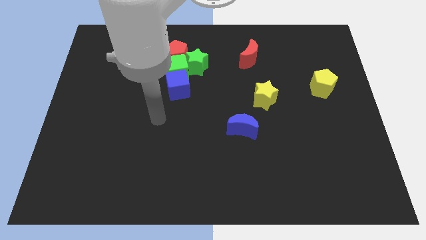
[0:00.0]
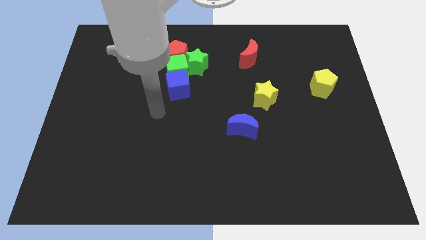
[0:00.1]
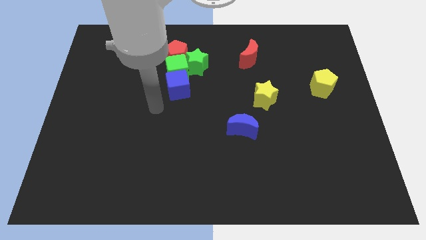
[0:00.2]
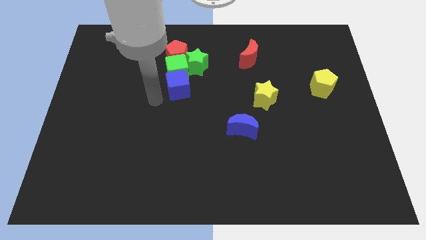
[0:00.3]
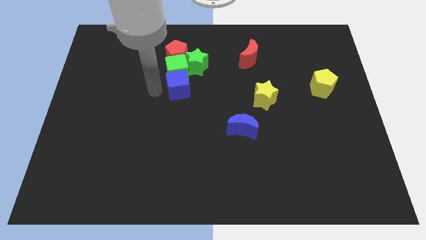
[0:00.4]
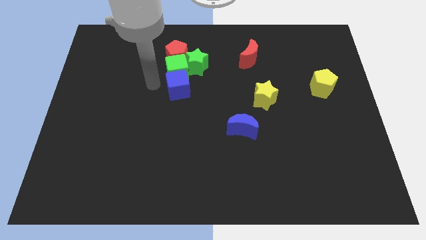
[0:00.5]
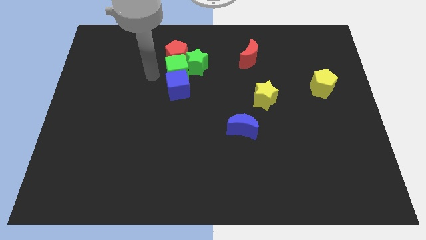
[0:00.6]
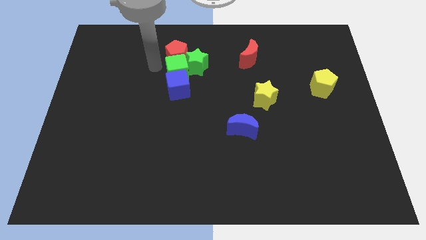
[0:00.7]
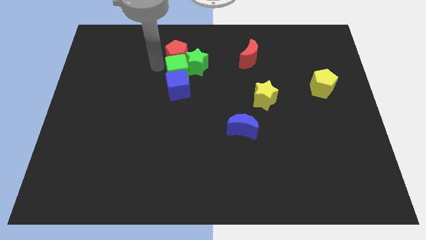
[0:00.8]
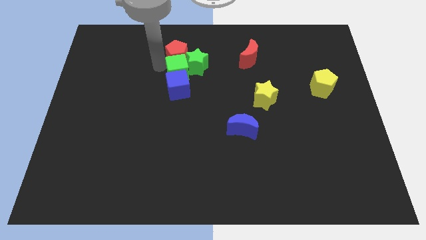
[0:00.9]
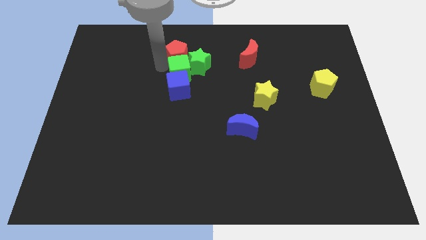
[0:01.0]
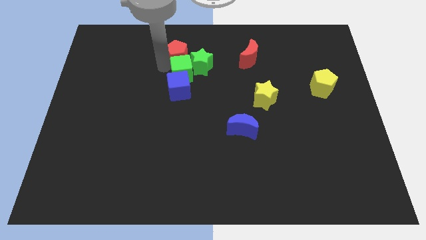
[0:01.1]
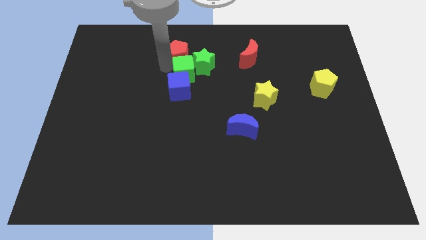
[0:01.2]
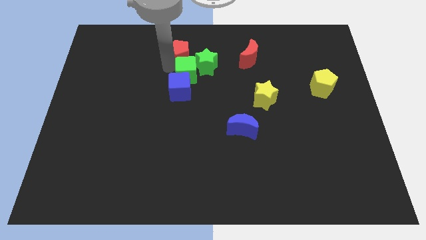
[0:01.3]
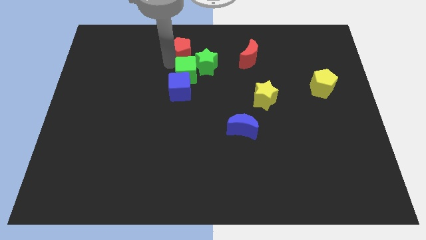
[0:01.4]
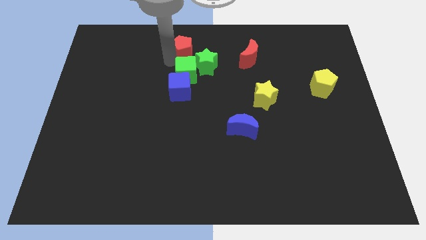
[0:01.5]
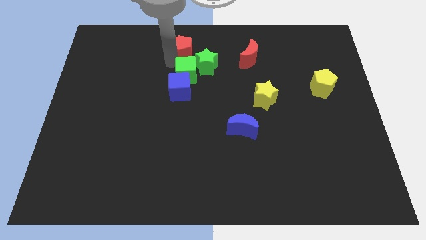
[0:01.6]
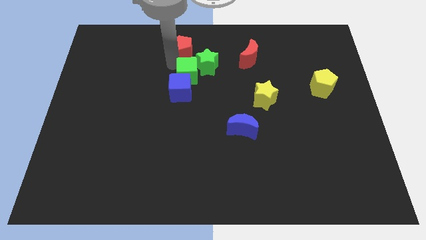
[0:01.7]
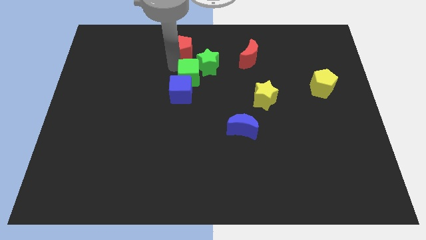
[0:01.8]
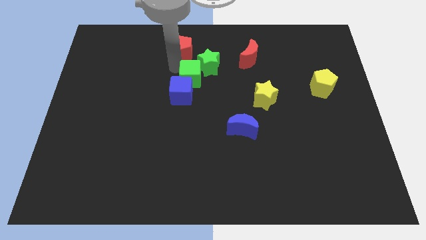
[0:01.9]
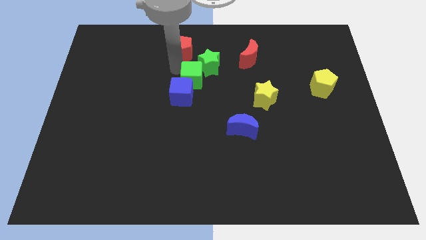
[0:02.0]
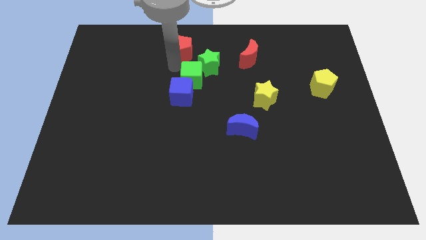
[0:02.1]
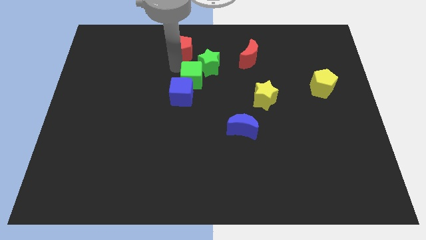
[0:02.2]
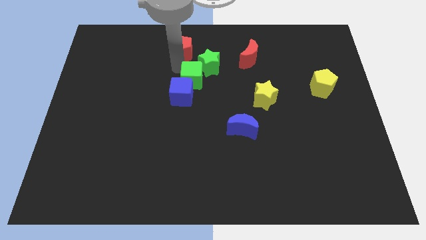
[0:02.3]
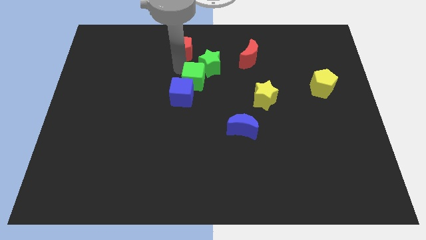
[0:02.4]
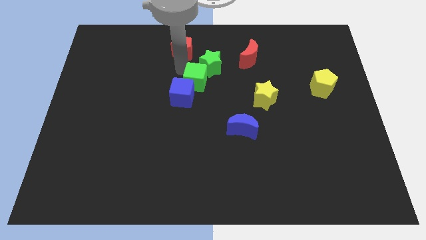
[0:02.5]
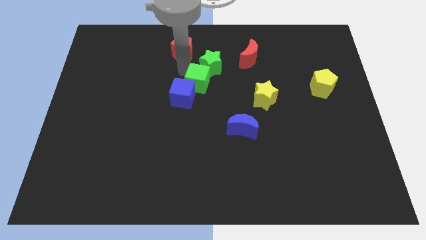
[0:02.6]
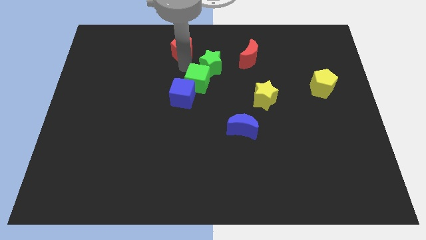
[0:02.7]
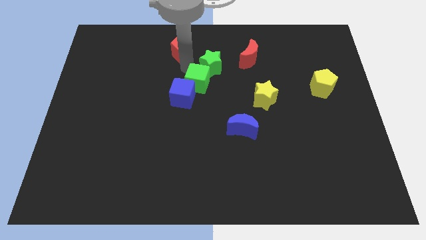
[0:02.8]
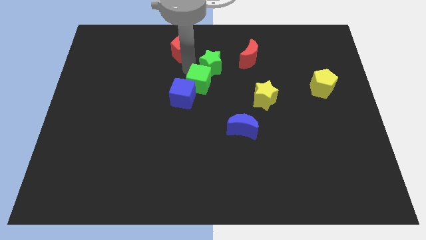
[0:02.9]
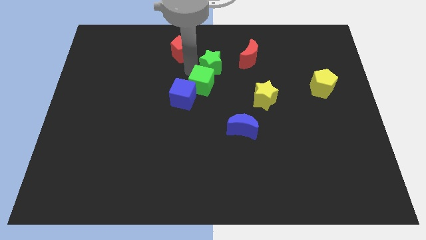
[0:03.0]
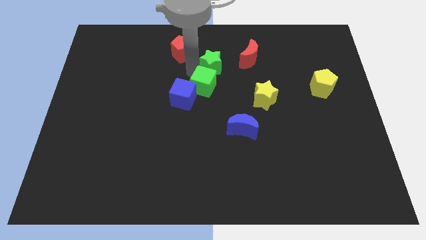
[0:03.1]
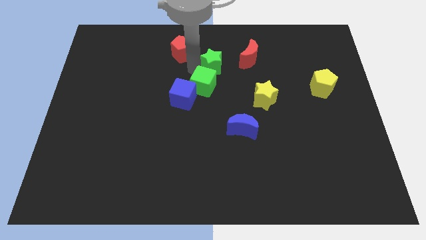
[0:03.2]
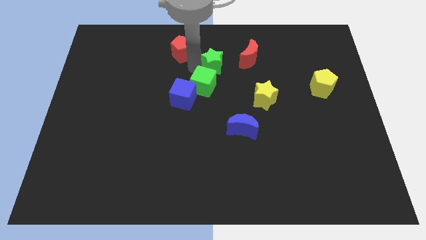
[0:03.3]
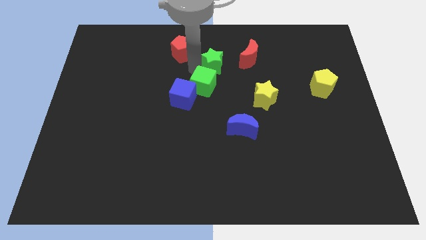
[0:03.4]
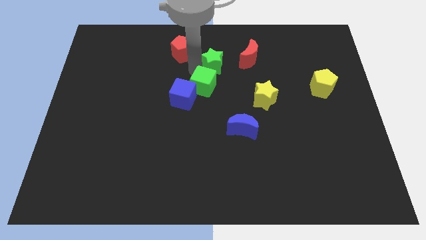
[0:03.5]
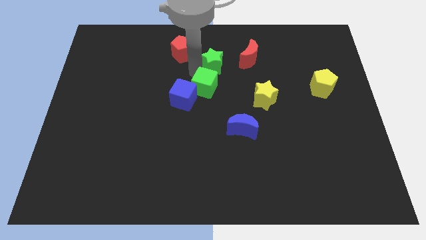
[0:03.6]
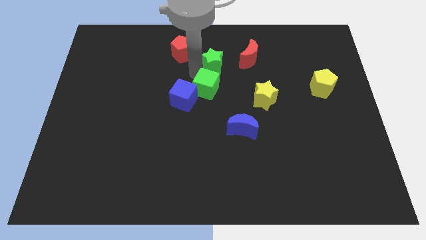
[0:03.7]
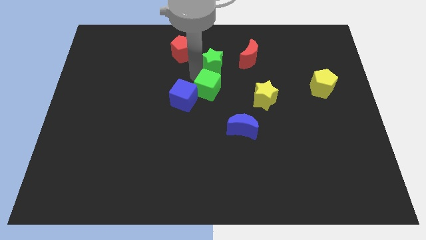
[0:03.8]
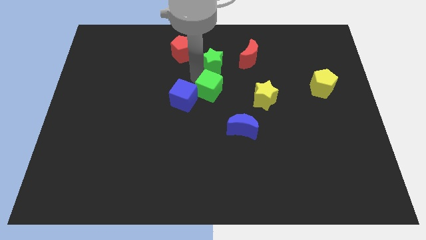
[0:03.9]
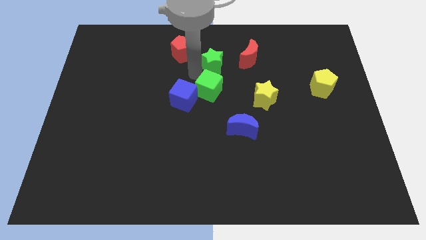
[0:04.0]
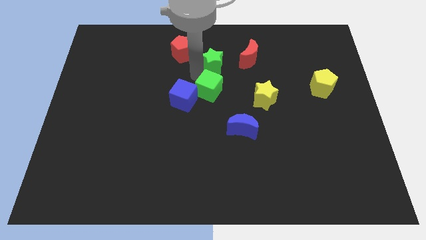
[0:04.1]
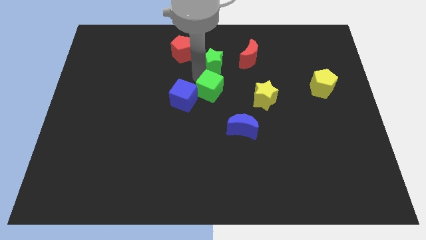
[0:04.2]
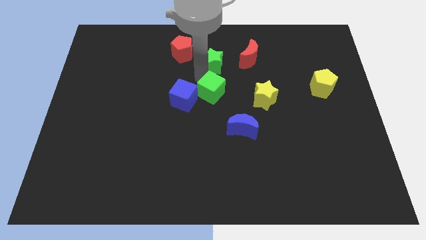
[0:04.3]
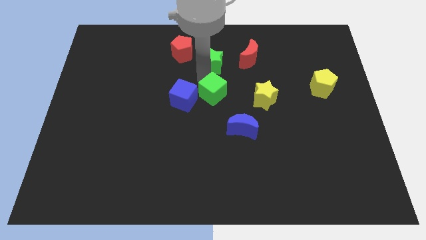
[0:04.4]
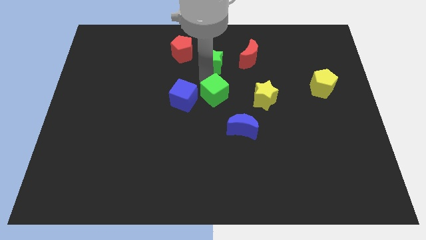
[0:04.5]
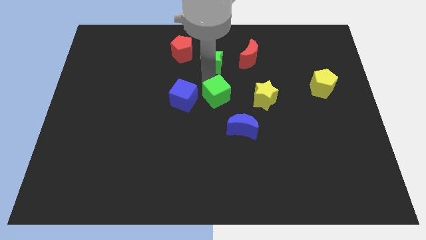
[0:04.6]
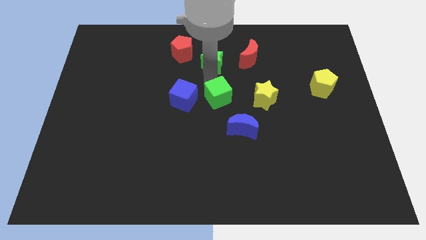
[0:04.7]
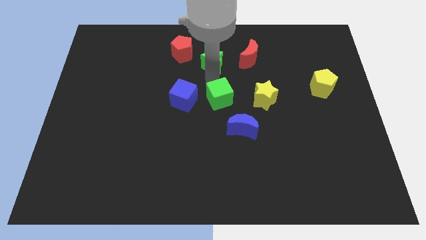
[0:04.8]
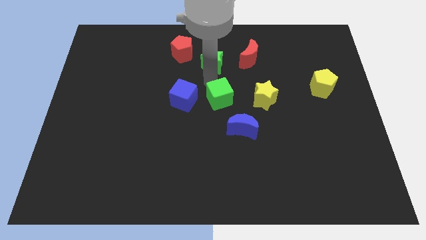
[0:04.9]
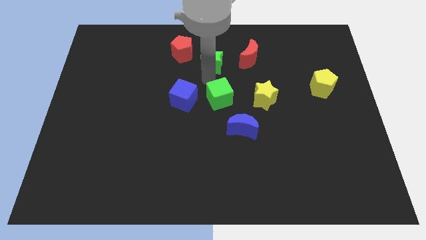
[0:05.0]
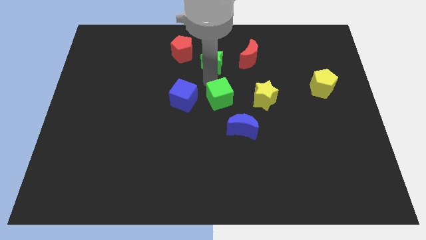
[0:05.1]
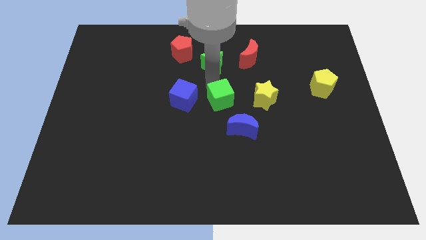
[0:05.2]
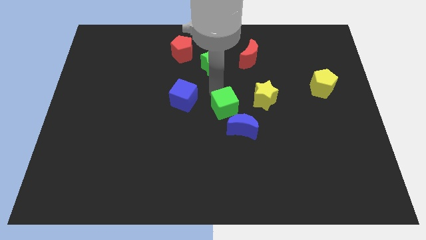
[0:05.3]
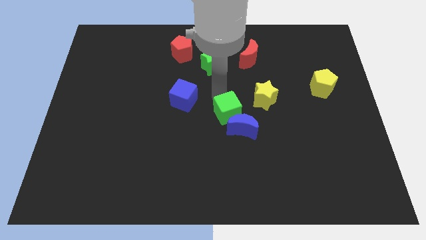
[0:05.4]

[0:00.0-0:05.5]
push the green cube towards the blue moon

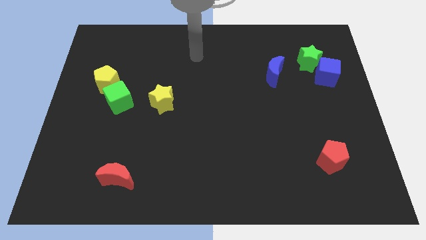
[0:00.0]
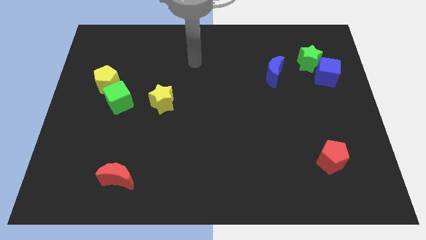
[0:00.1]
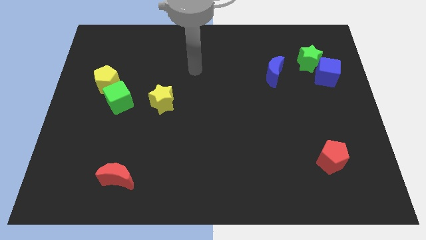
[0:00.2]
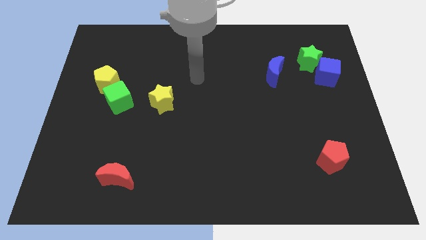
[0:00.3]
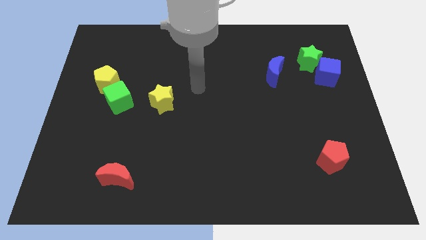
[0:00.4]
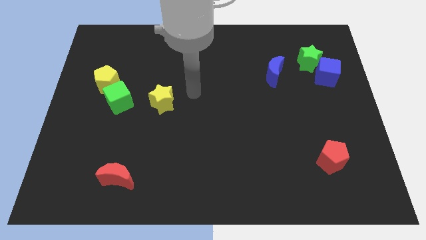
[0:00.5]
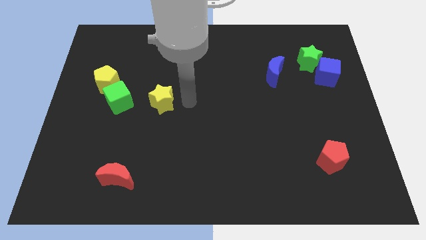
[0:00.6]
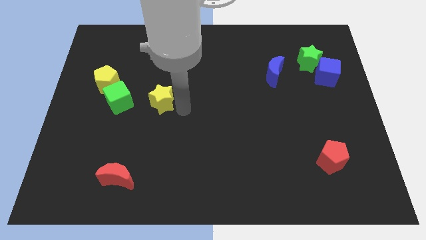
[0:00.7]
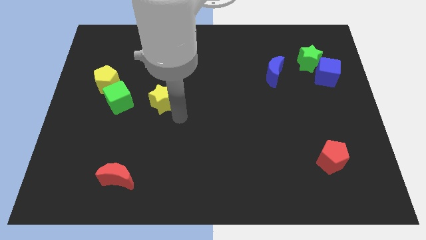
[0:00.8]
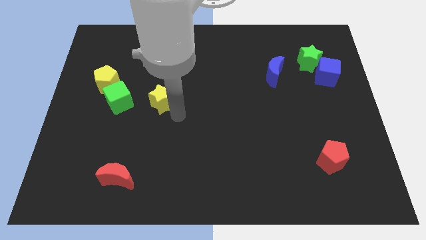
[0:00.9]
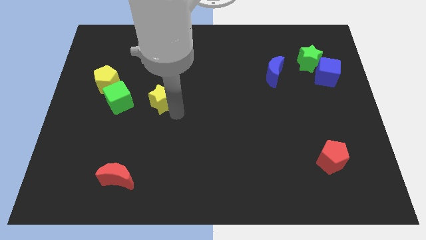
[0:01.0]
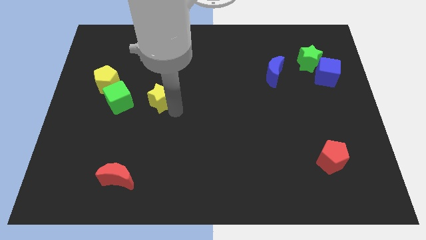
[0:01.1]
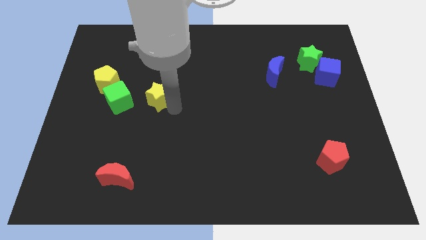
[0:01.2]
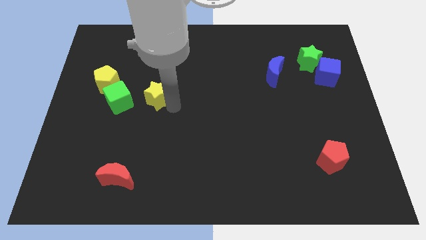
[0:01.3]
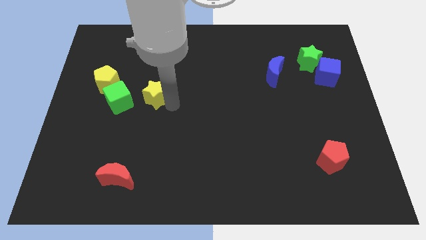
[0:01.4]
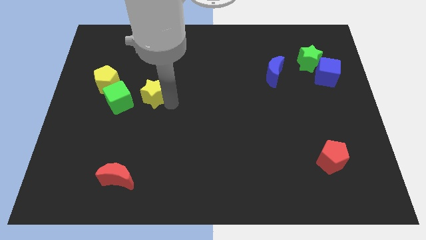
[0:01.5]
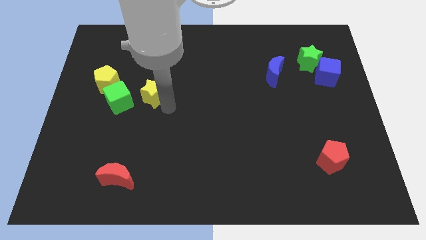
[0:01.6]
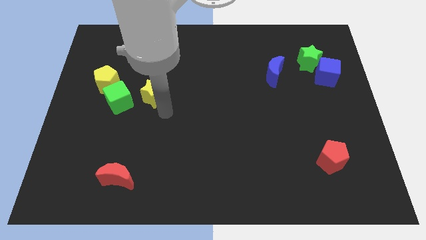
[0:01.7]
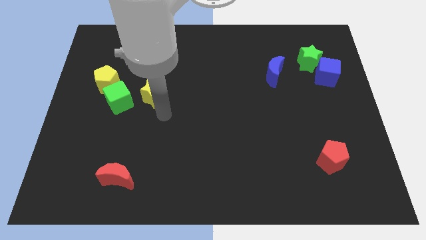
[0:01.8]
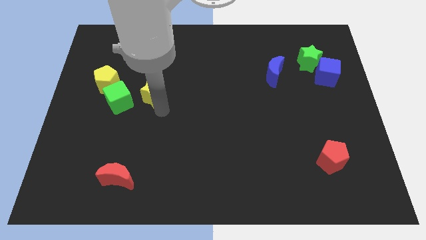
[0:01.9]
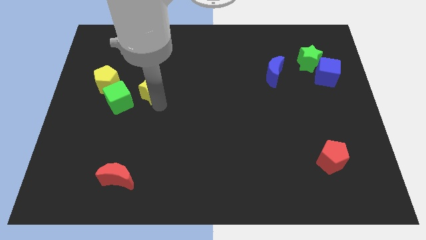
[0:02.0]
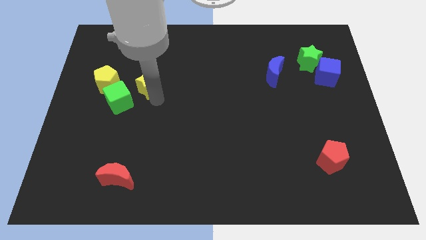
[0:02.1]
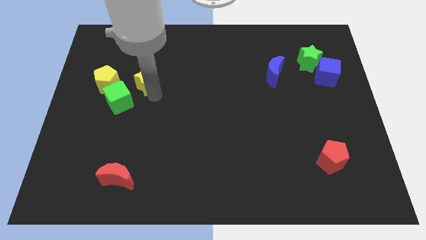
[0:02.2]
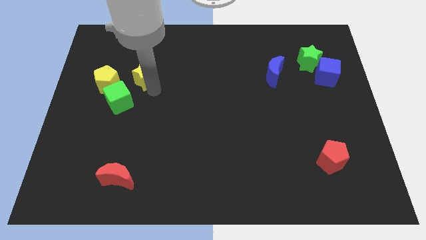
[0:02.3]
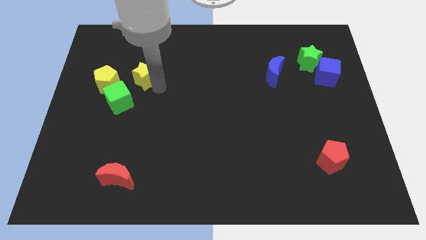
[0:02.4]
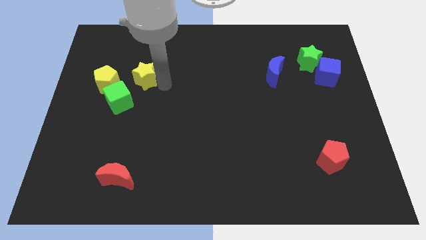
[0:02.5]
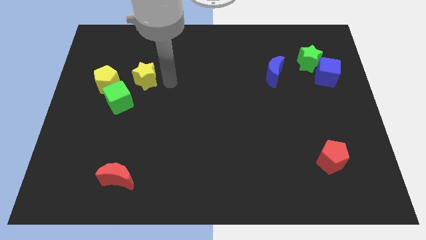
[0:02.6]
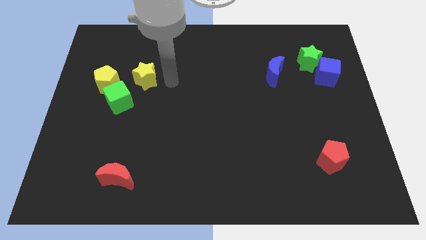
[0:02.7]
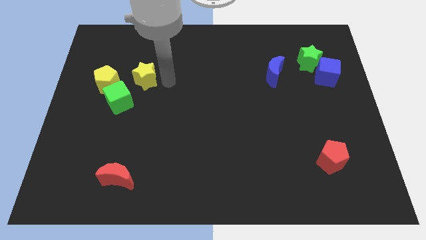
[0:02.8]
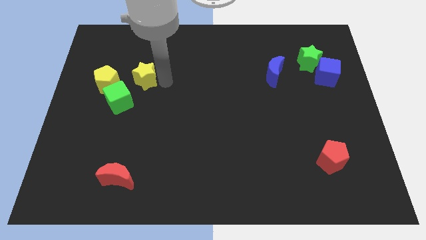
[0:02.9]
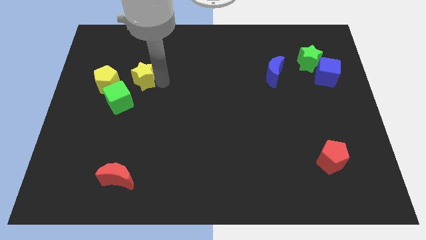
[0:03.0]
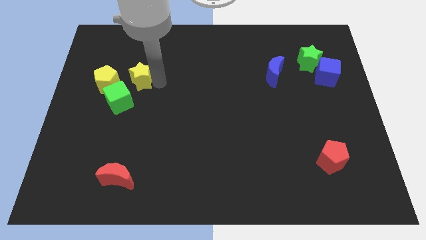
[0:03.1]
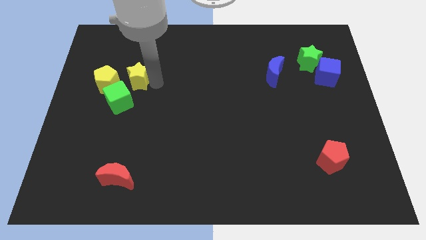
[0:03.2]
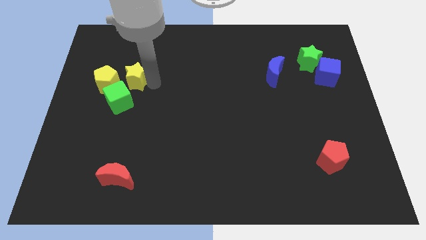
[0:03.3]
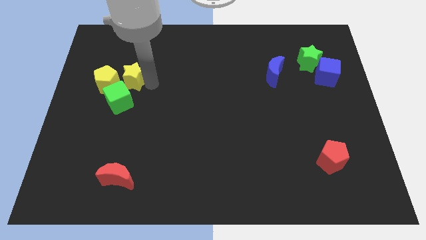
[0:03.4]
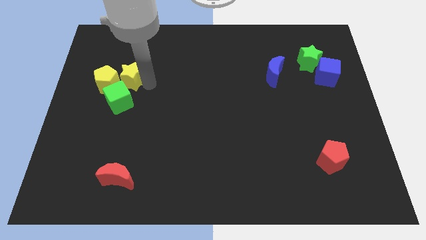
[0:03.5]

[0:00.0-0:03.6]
push the yellow star next to the yellow pentagon
